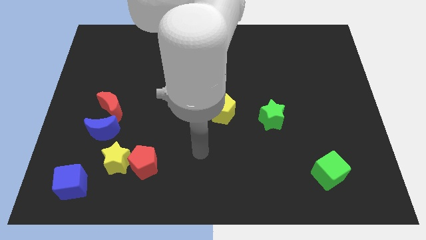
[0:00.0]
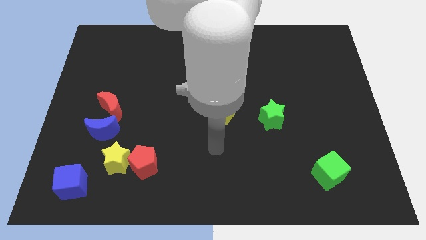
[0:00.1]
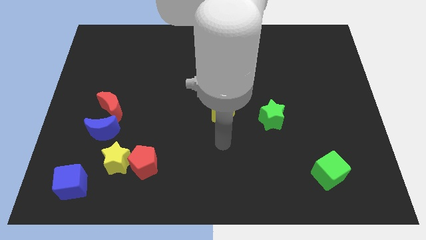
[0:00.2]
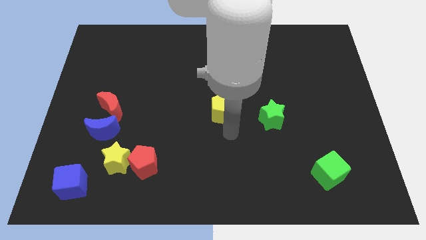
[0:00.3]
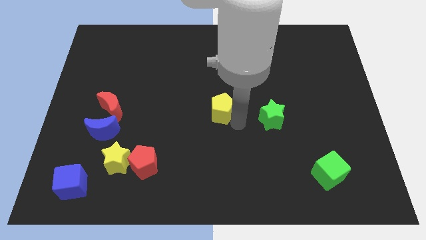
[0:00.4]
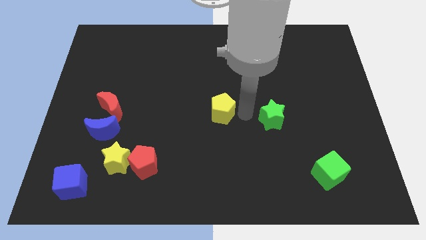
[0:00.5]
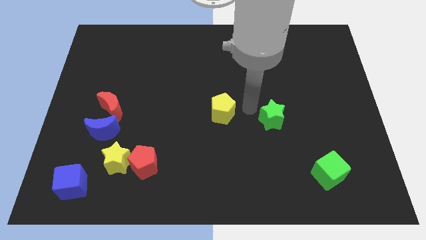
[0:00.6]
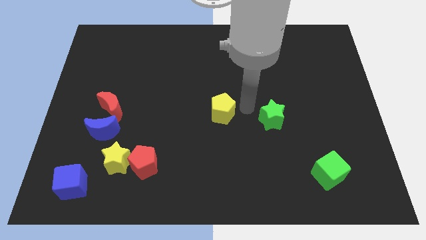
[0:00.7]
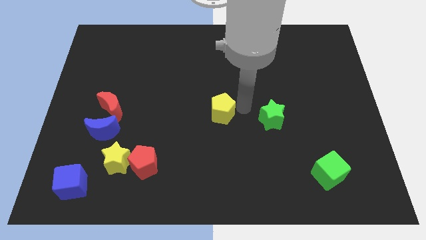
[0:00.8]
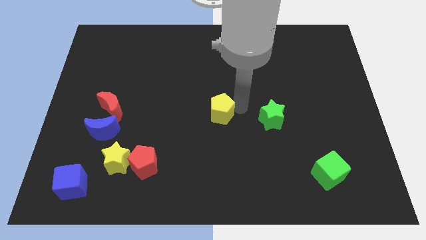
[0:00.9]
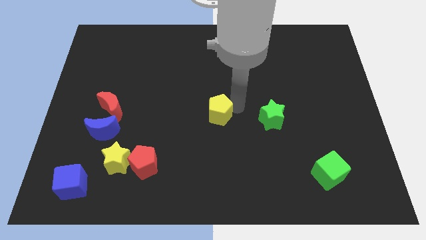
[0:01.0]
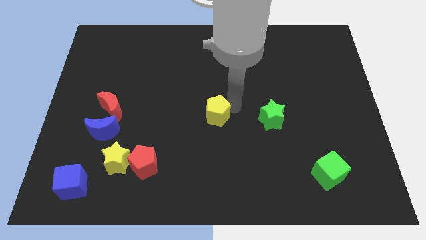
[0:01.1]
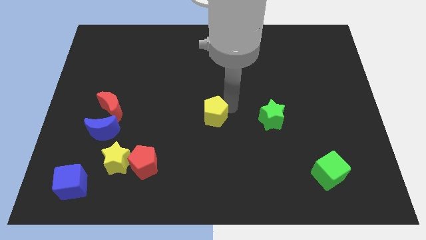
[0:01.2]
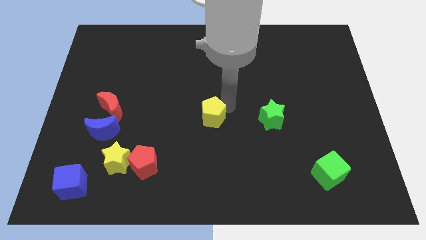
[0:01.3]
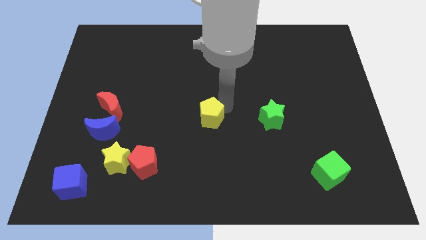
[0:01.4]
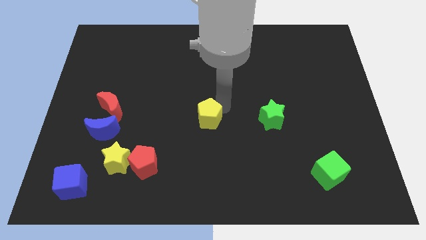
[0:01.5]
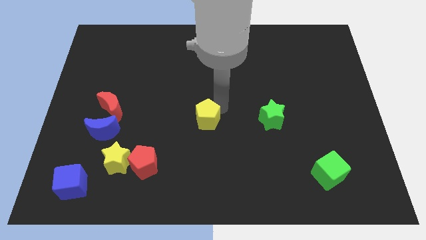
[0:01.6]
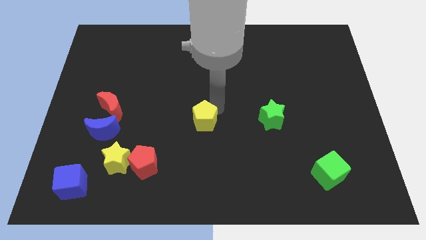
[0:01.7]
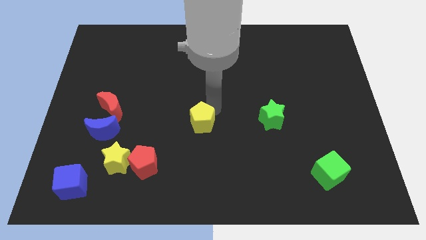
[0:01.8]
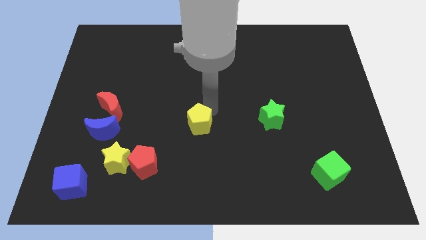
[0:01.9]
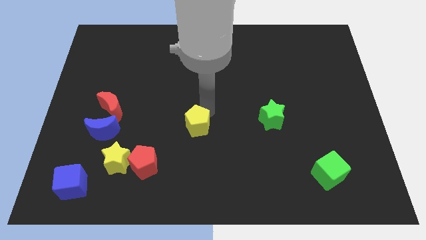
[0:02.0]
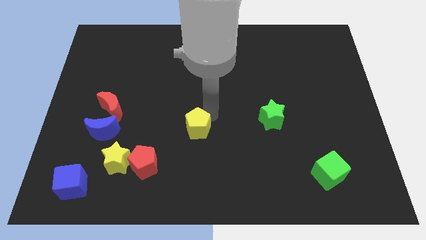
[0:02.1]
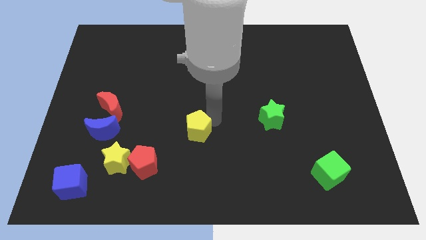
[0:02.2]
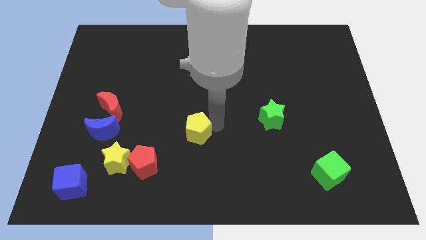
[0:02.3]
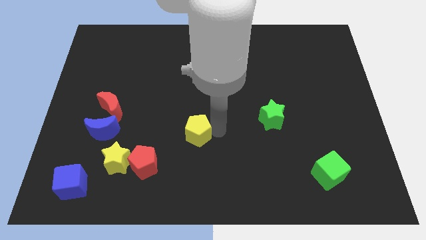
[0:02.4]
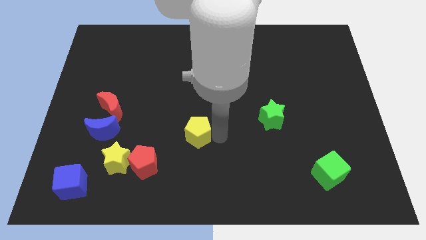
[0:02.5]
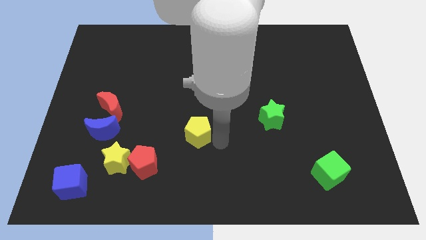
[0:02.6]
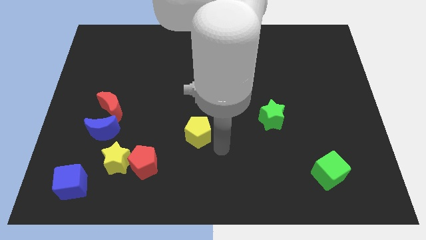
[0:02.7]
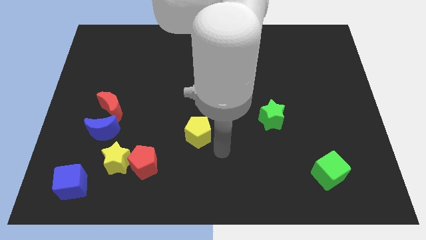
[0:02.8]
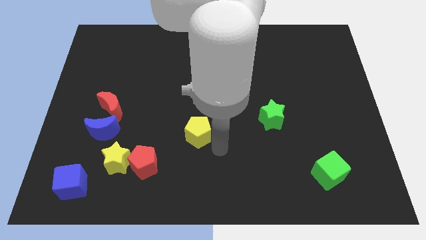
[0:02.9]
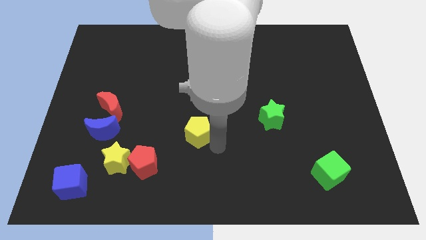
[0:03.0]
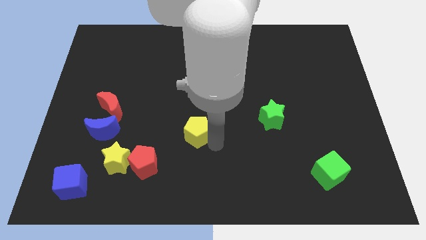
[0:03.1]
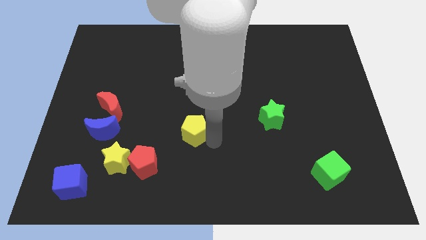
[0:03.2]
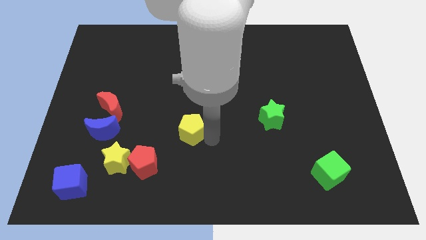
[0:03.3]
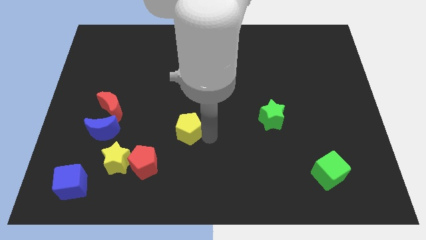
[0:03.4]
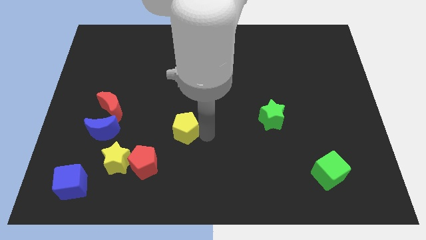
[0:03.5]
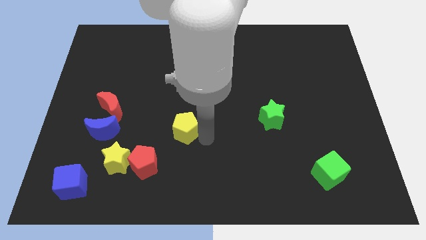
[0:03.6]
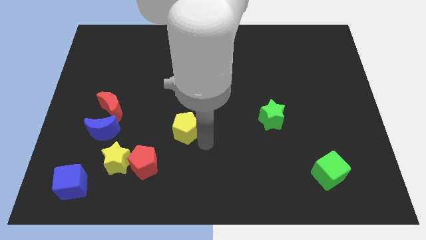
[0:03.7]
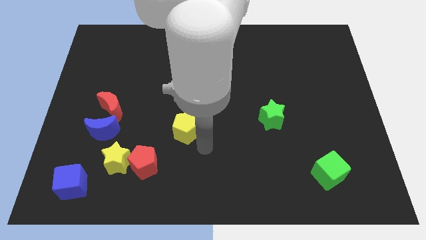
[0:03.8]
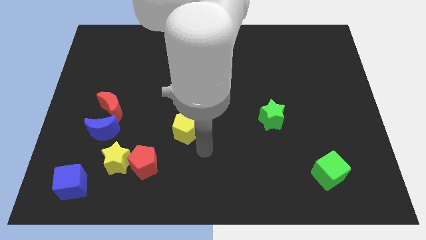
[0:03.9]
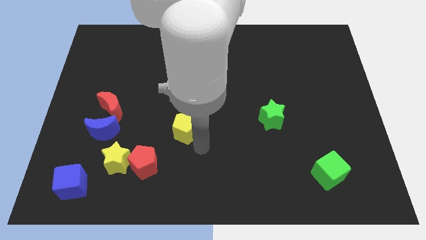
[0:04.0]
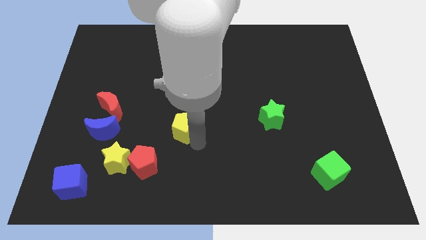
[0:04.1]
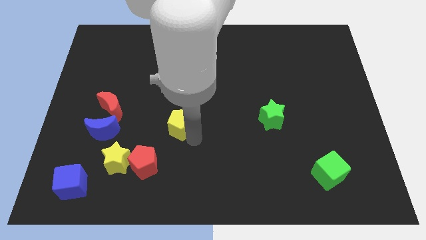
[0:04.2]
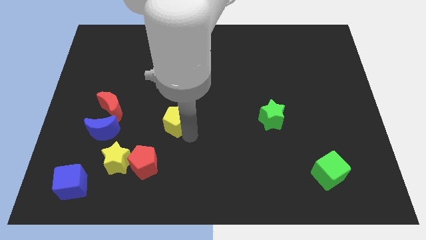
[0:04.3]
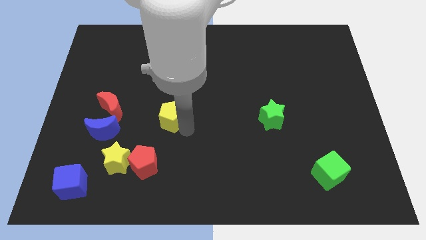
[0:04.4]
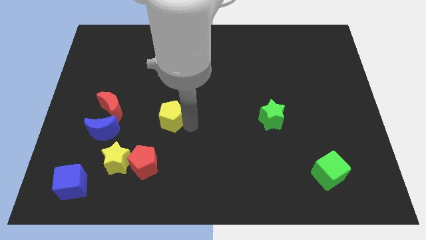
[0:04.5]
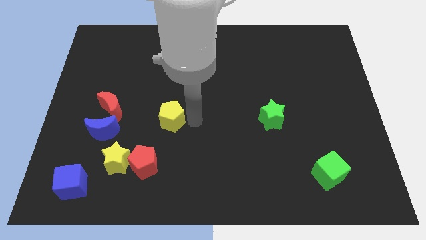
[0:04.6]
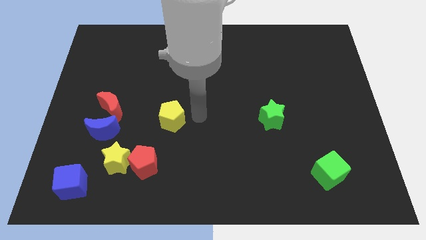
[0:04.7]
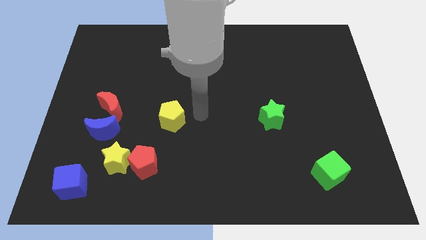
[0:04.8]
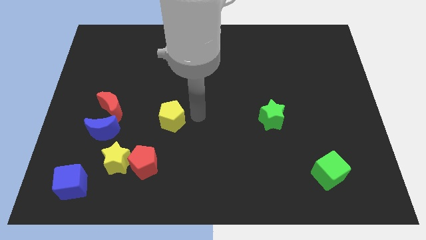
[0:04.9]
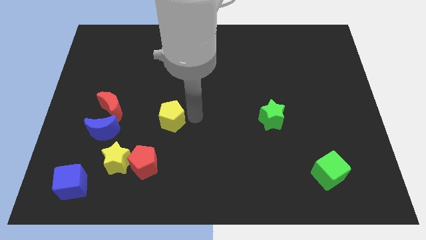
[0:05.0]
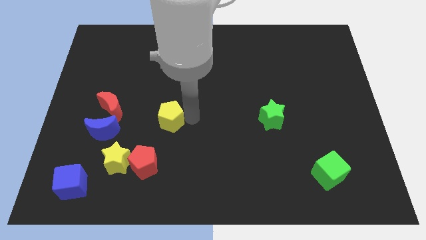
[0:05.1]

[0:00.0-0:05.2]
slide the yellow pentagon to the top side of the red pentagon

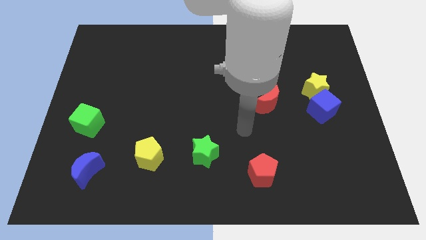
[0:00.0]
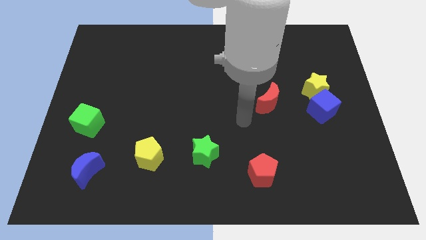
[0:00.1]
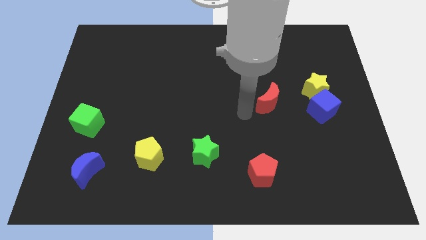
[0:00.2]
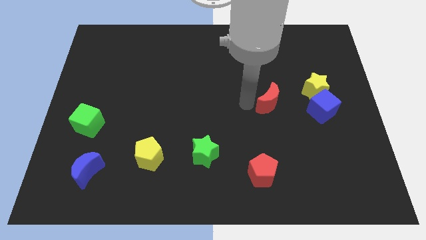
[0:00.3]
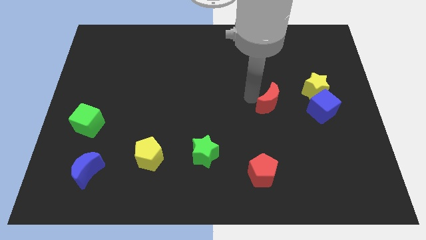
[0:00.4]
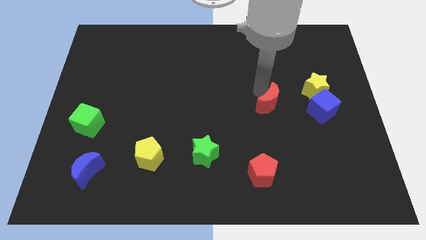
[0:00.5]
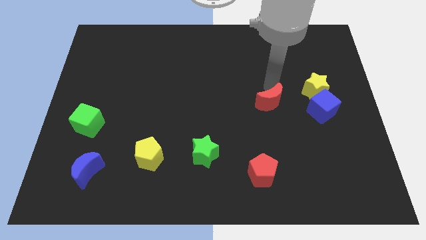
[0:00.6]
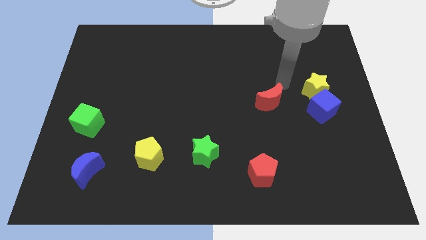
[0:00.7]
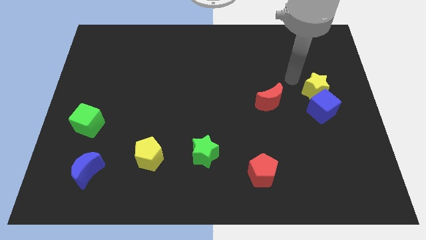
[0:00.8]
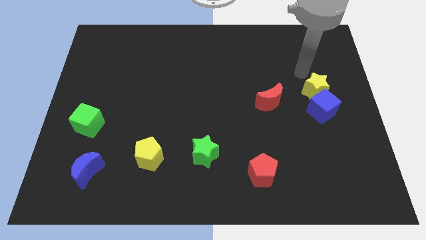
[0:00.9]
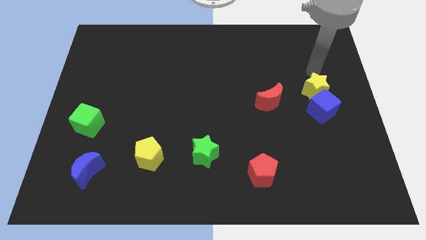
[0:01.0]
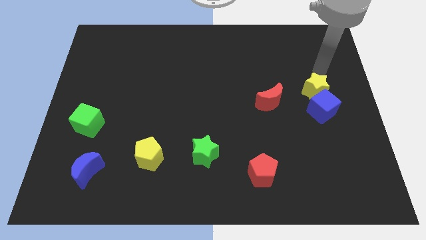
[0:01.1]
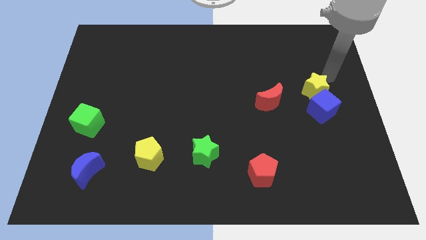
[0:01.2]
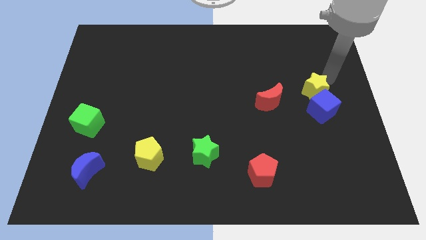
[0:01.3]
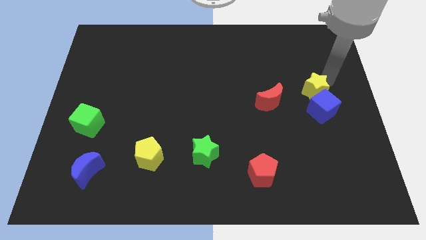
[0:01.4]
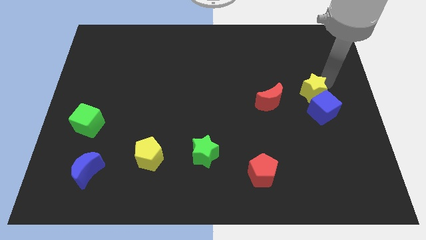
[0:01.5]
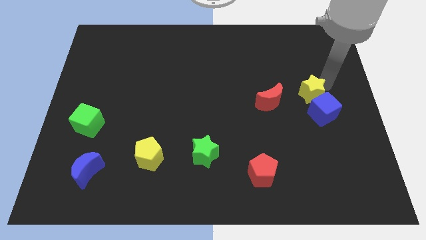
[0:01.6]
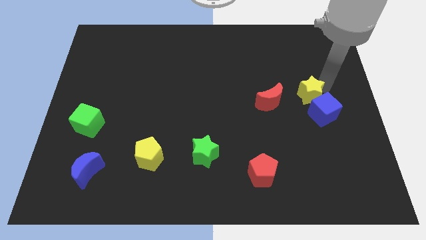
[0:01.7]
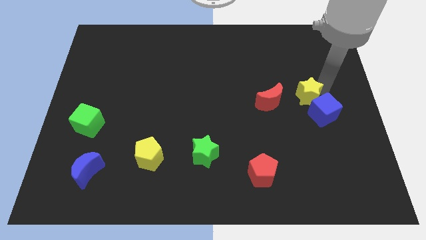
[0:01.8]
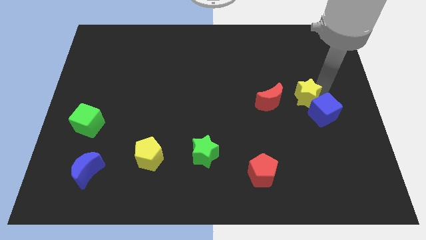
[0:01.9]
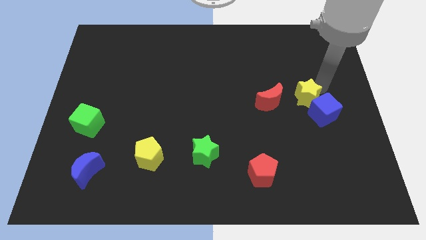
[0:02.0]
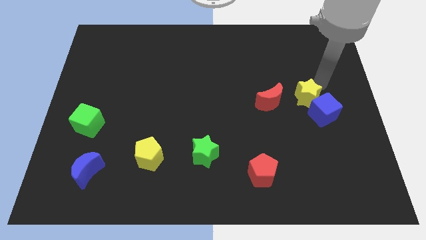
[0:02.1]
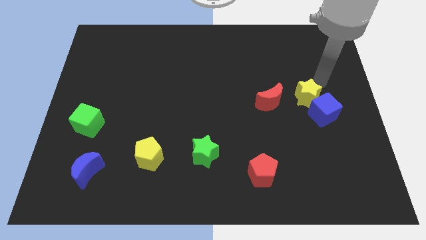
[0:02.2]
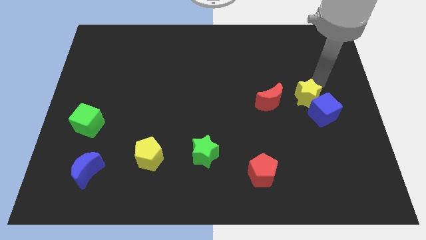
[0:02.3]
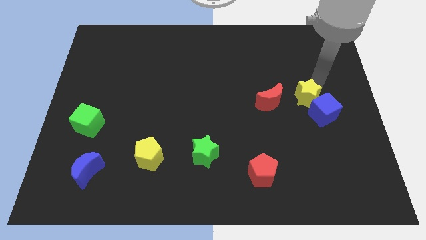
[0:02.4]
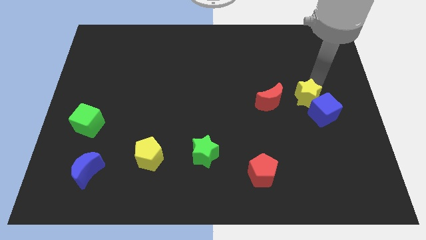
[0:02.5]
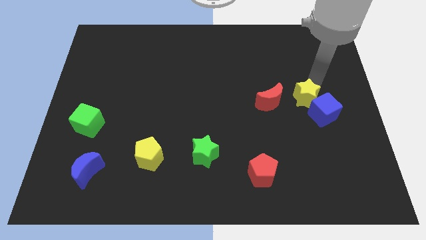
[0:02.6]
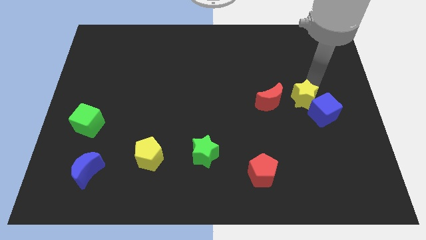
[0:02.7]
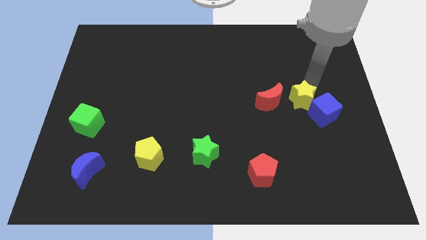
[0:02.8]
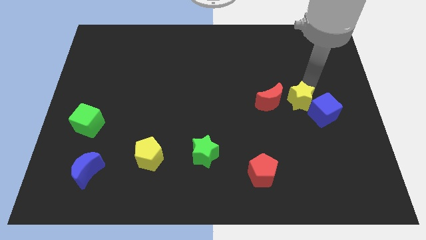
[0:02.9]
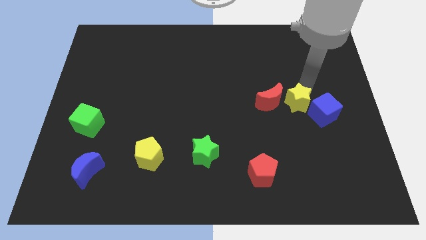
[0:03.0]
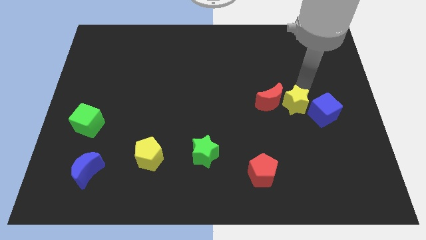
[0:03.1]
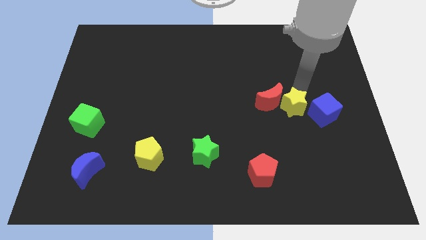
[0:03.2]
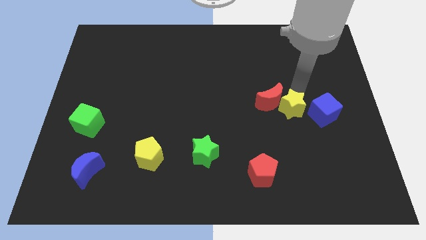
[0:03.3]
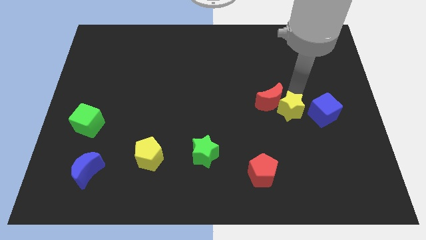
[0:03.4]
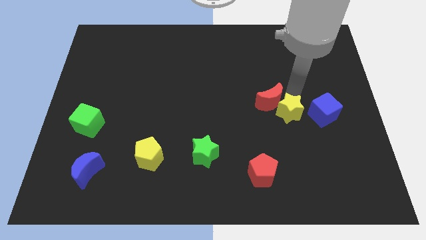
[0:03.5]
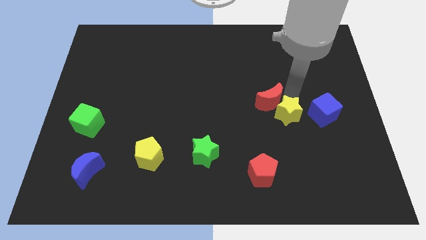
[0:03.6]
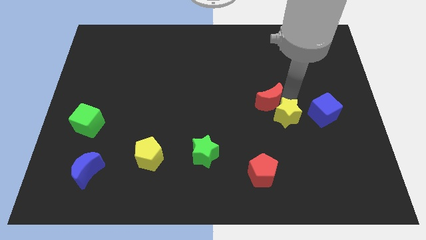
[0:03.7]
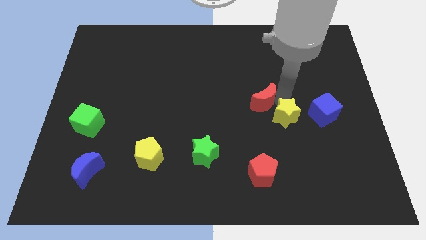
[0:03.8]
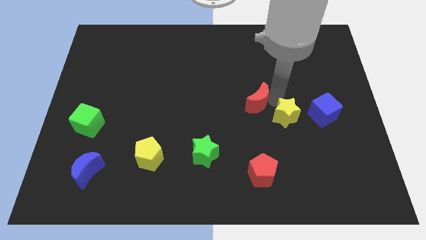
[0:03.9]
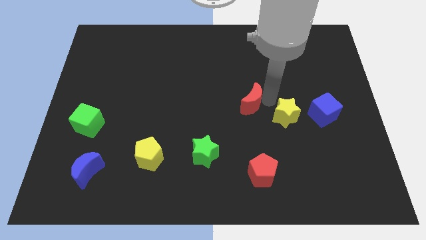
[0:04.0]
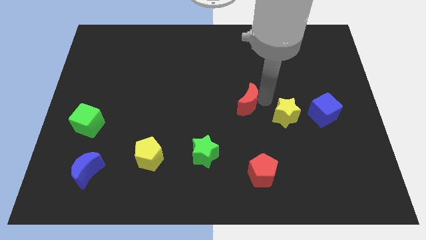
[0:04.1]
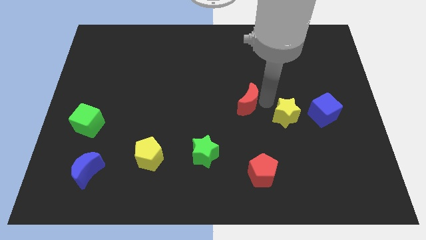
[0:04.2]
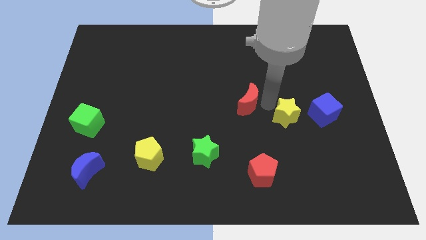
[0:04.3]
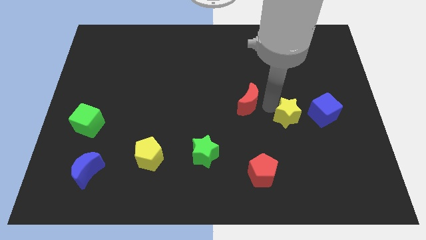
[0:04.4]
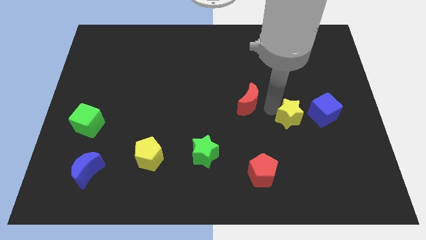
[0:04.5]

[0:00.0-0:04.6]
put the yellow star diagonally down and to the left of the blue cube
